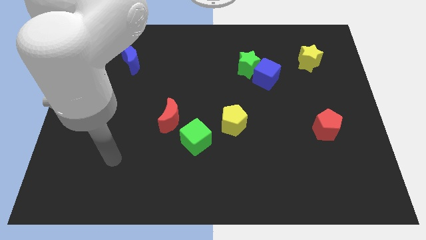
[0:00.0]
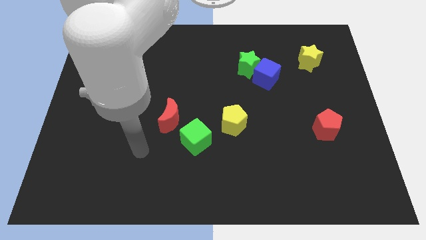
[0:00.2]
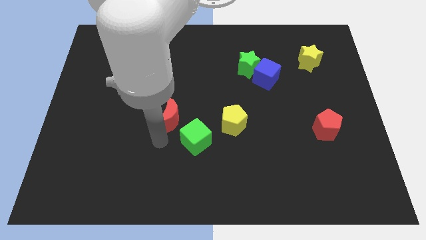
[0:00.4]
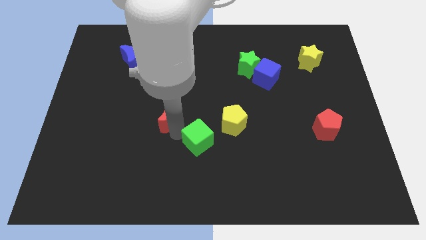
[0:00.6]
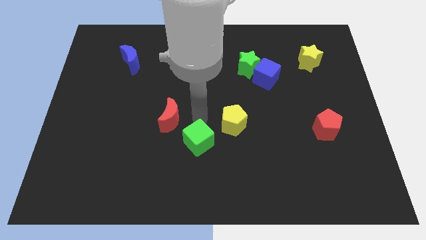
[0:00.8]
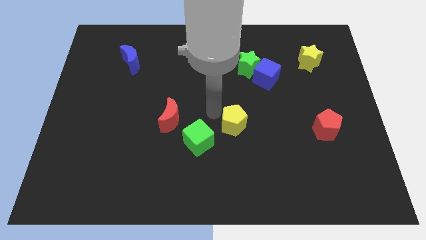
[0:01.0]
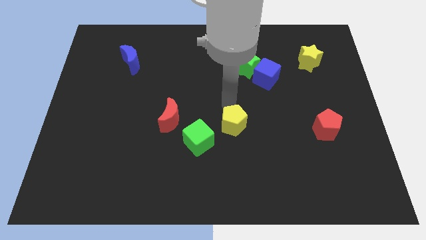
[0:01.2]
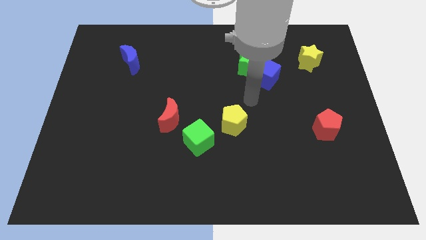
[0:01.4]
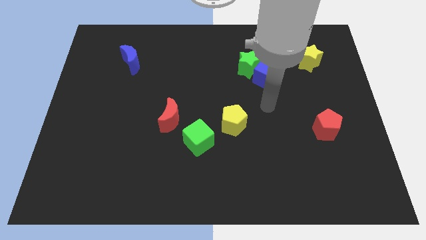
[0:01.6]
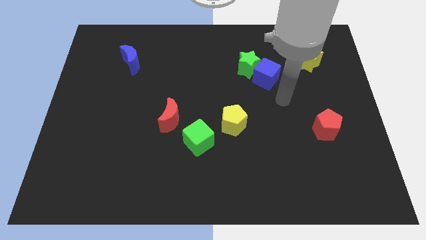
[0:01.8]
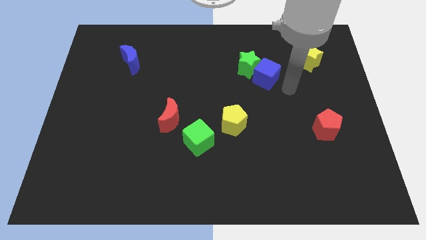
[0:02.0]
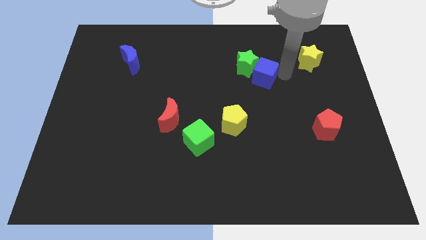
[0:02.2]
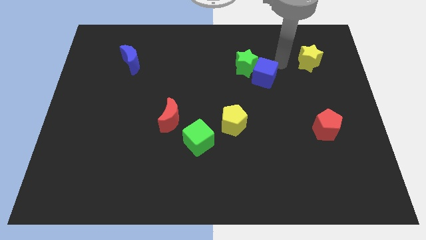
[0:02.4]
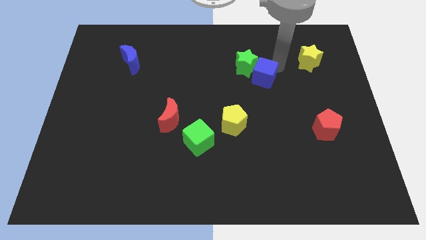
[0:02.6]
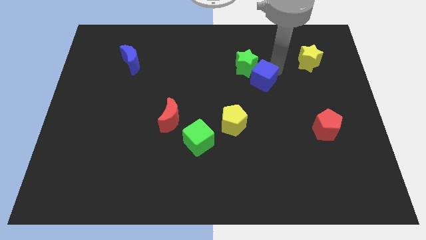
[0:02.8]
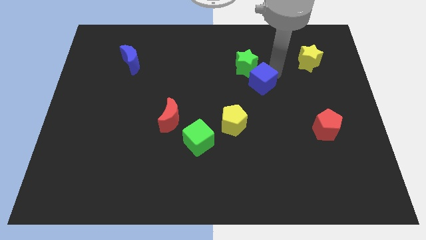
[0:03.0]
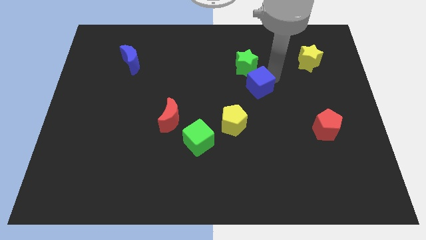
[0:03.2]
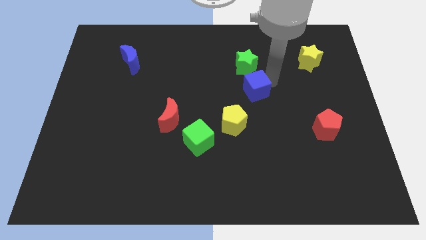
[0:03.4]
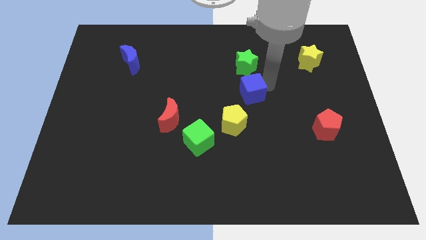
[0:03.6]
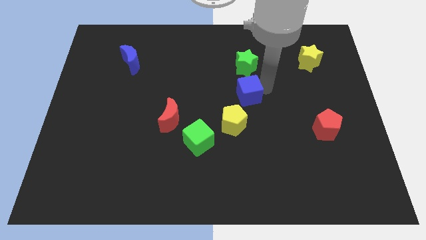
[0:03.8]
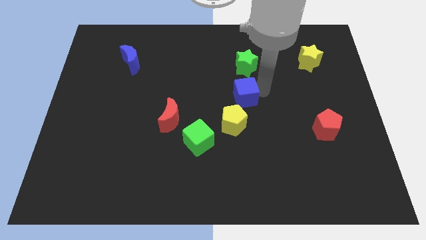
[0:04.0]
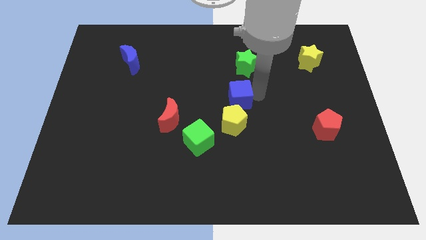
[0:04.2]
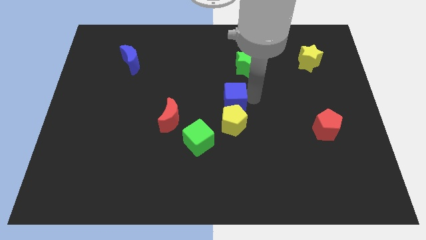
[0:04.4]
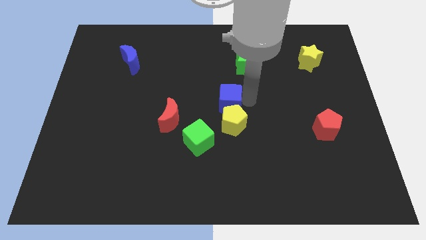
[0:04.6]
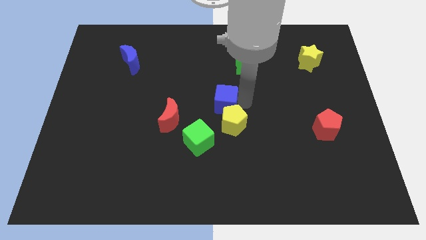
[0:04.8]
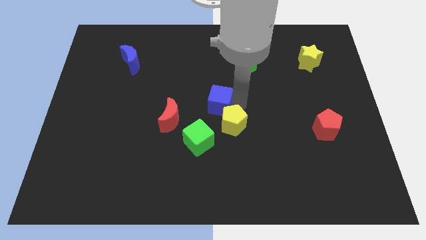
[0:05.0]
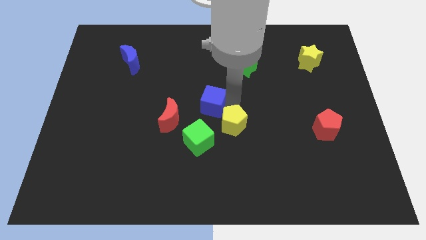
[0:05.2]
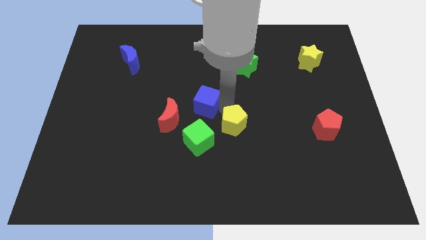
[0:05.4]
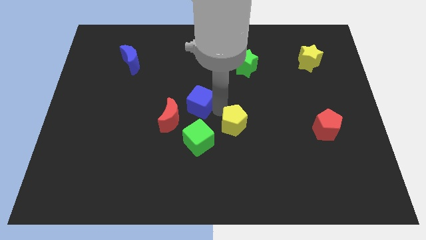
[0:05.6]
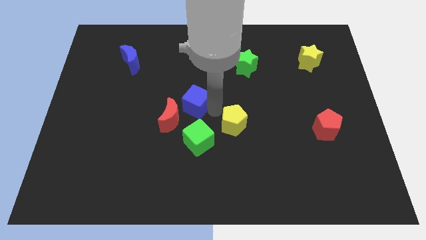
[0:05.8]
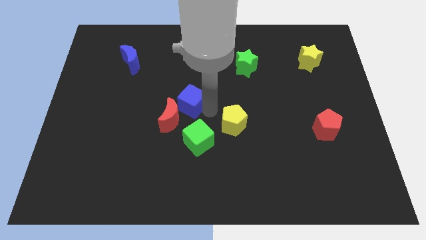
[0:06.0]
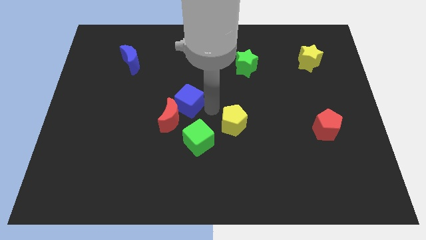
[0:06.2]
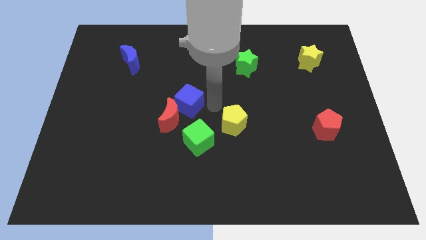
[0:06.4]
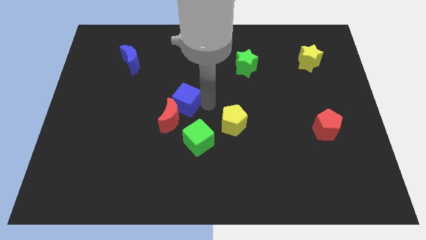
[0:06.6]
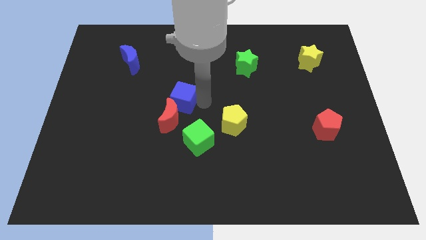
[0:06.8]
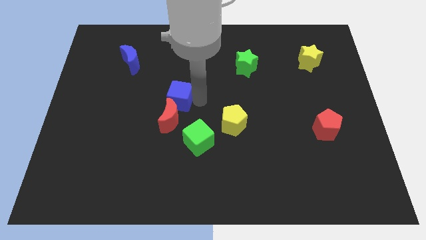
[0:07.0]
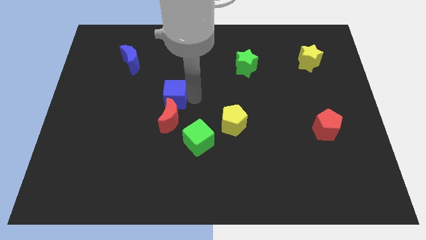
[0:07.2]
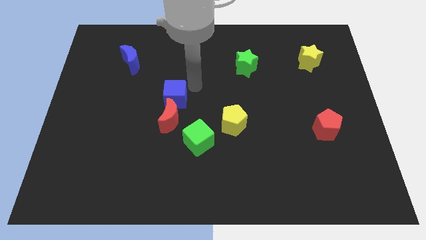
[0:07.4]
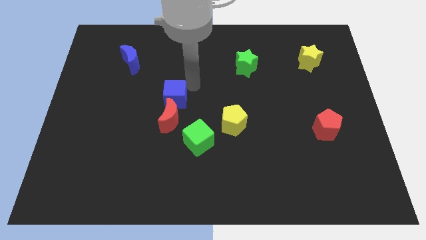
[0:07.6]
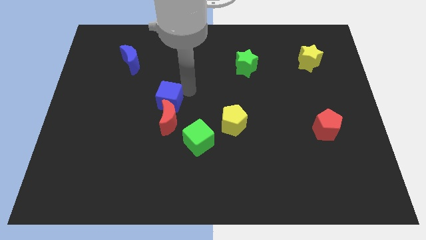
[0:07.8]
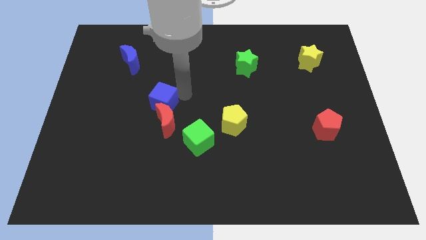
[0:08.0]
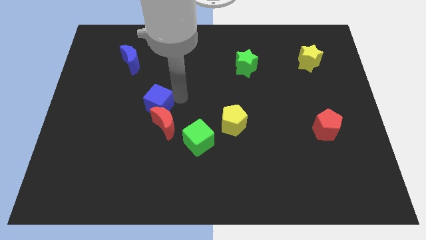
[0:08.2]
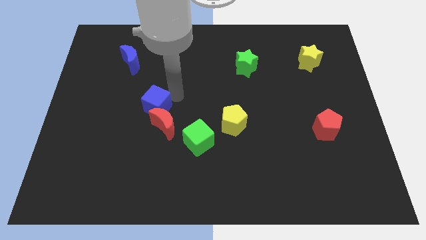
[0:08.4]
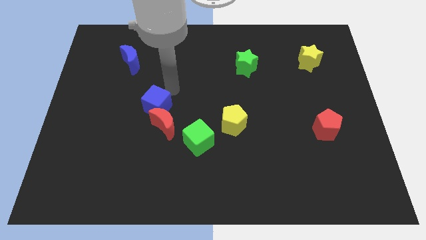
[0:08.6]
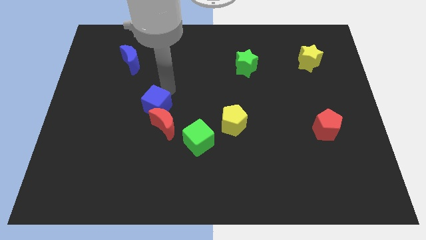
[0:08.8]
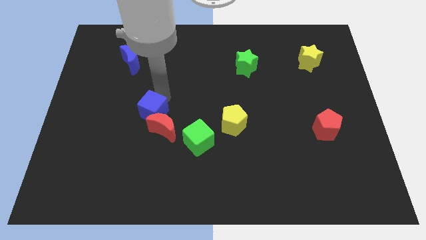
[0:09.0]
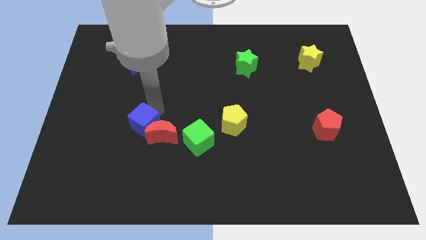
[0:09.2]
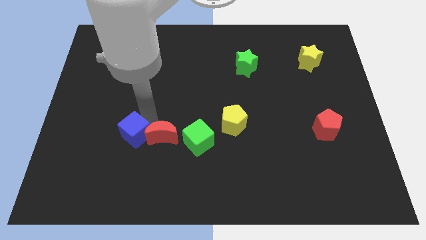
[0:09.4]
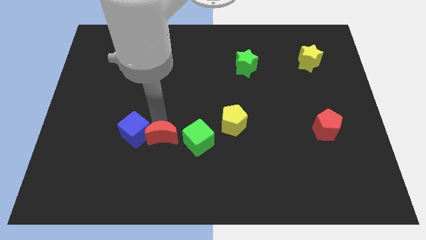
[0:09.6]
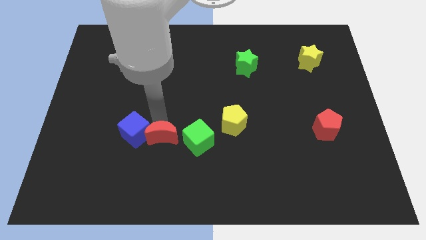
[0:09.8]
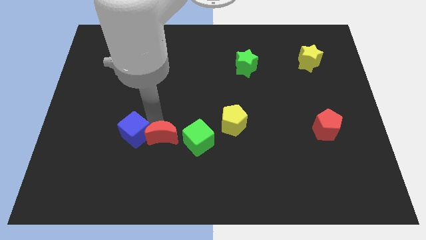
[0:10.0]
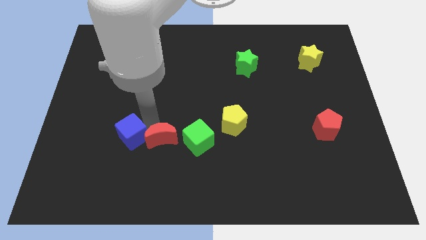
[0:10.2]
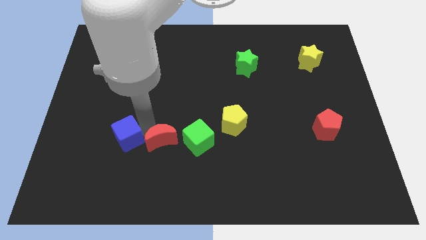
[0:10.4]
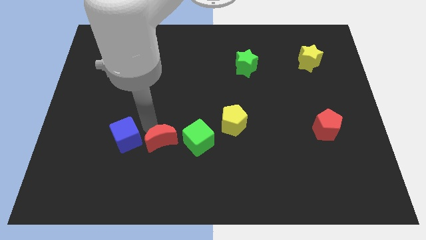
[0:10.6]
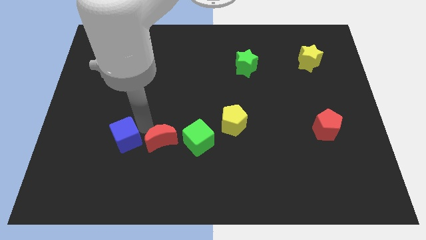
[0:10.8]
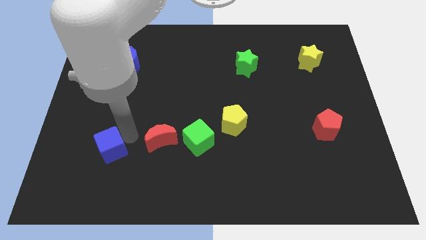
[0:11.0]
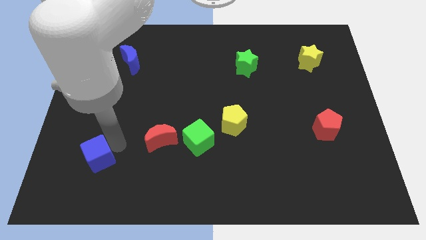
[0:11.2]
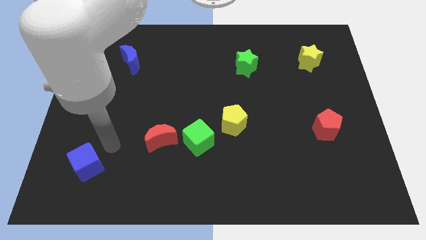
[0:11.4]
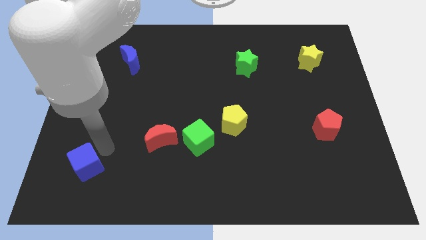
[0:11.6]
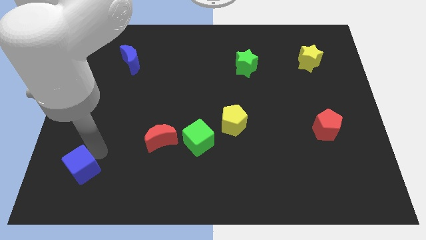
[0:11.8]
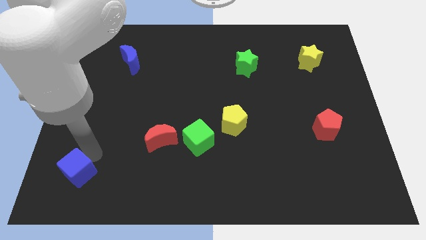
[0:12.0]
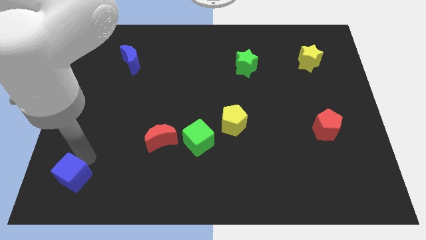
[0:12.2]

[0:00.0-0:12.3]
move the blue cube to the bottom left corner
